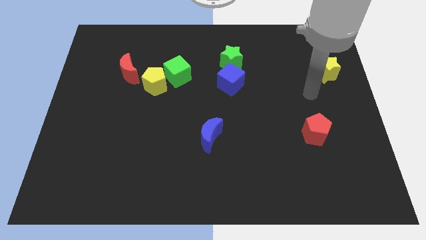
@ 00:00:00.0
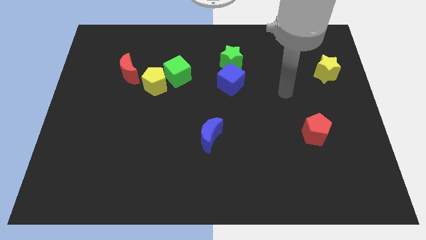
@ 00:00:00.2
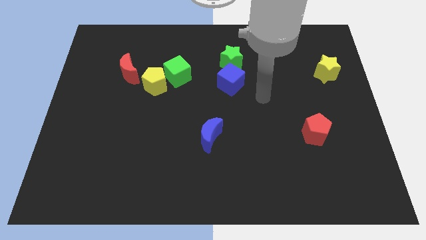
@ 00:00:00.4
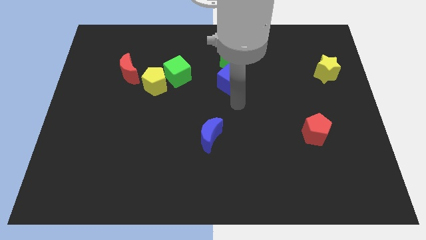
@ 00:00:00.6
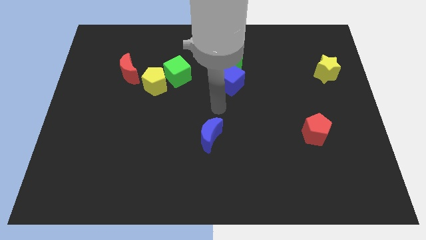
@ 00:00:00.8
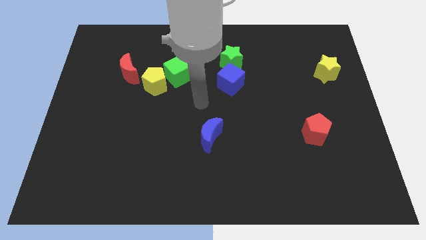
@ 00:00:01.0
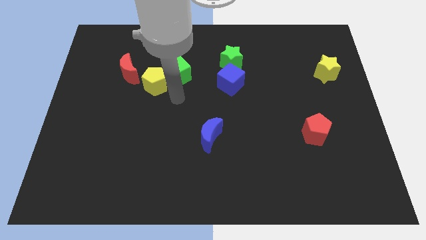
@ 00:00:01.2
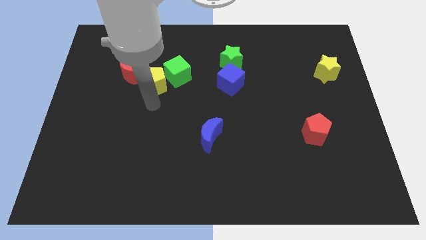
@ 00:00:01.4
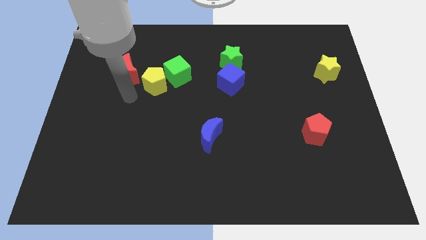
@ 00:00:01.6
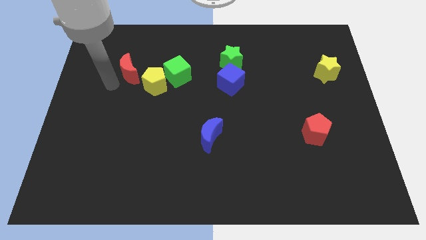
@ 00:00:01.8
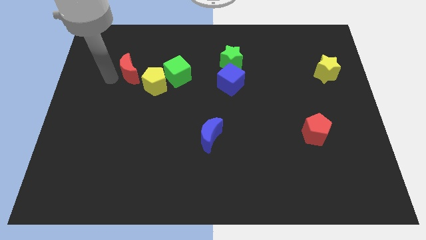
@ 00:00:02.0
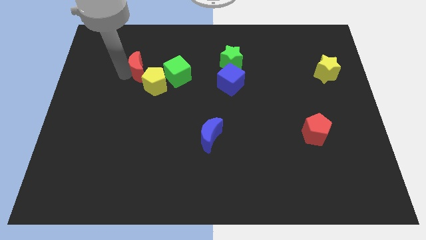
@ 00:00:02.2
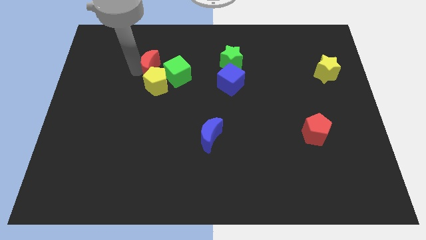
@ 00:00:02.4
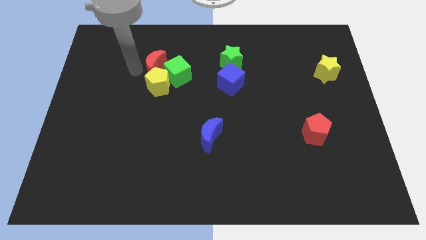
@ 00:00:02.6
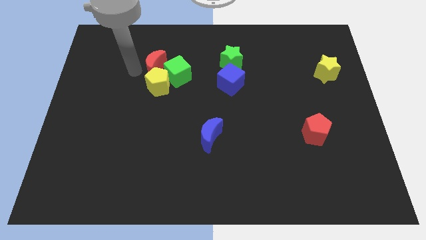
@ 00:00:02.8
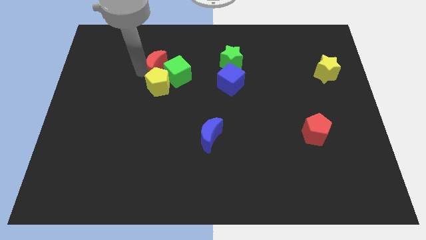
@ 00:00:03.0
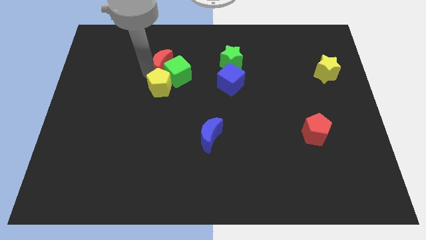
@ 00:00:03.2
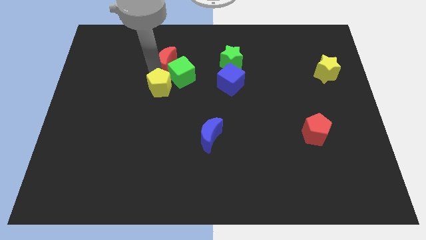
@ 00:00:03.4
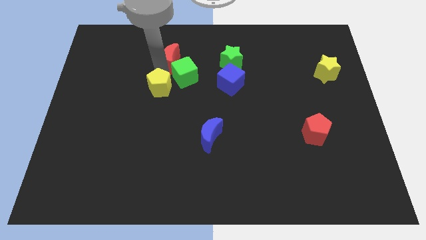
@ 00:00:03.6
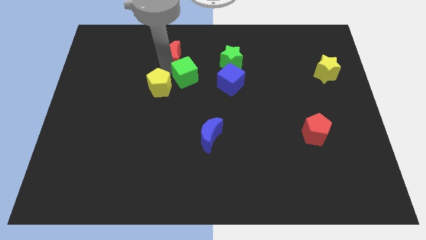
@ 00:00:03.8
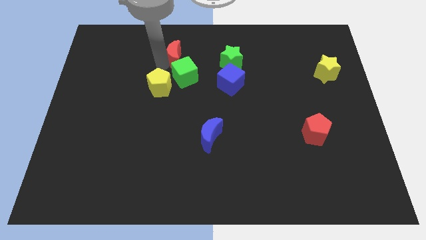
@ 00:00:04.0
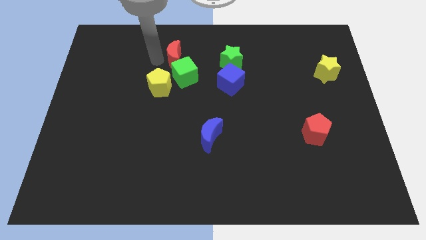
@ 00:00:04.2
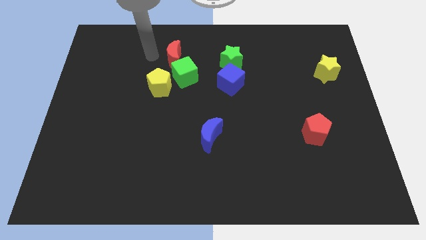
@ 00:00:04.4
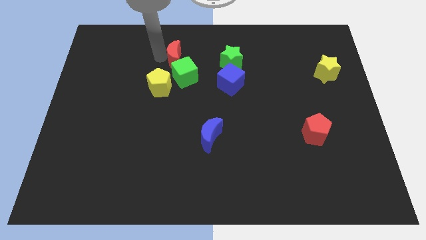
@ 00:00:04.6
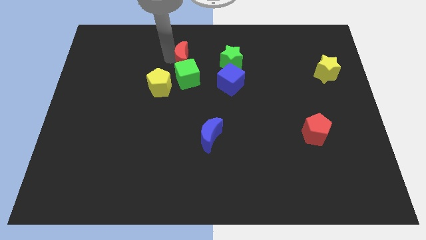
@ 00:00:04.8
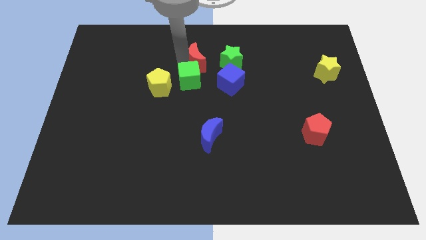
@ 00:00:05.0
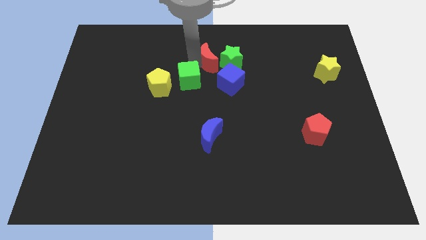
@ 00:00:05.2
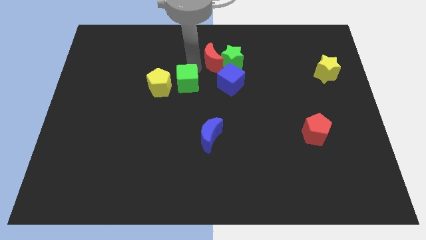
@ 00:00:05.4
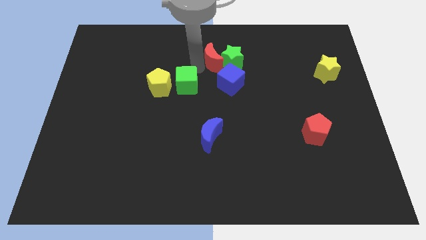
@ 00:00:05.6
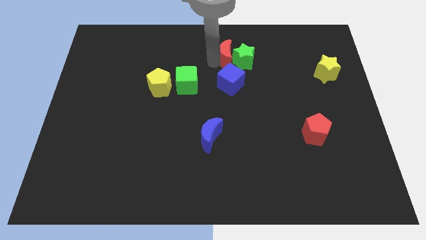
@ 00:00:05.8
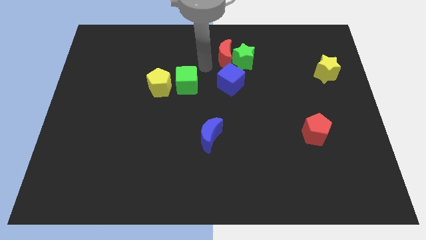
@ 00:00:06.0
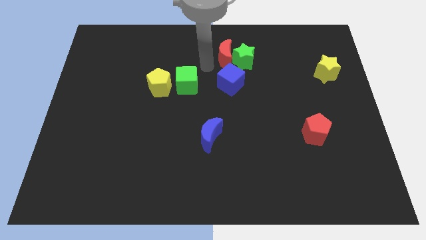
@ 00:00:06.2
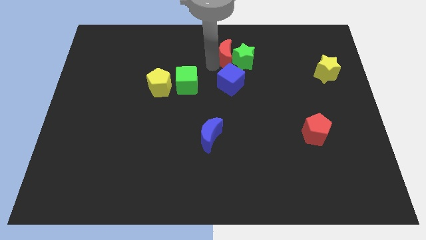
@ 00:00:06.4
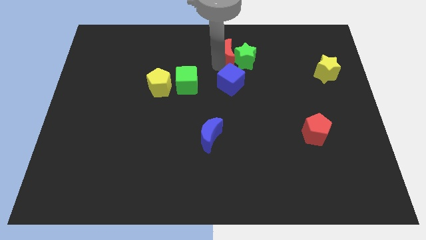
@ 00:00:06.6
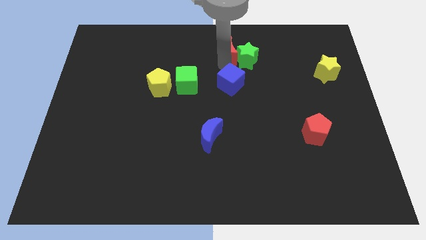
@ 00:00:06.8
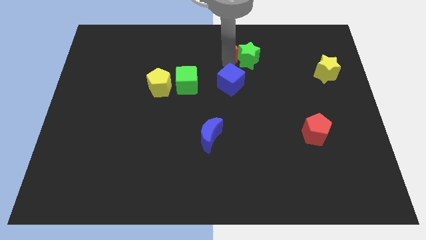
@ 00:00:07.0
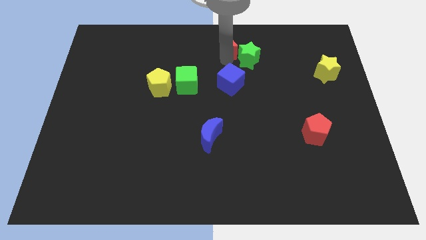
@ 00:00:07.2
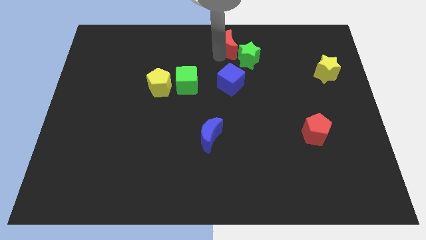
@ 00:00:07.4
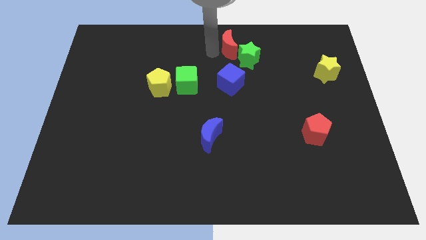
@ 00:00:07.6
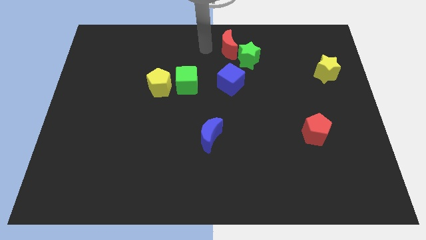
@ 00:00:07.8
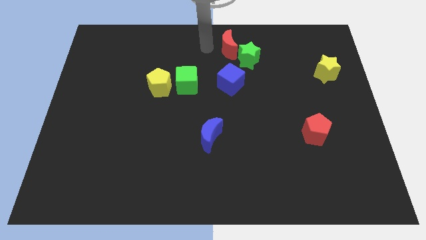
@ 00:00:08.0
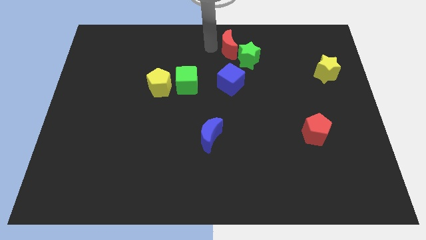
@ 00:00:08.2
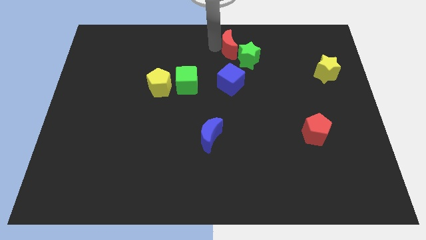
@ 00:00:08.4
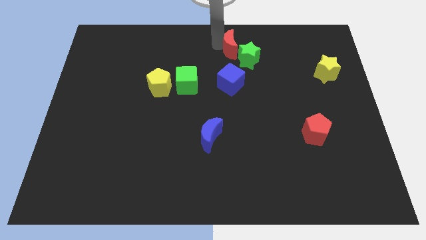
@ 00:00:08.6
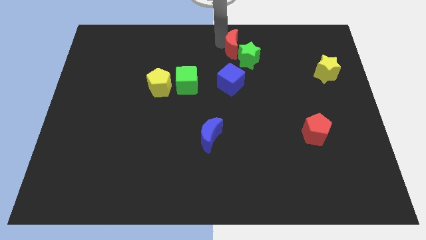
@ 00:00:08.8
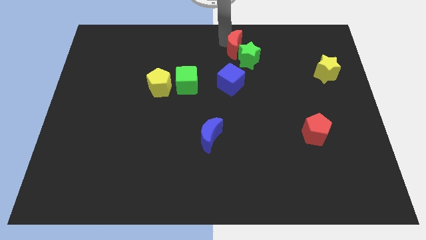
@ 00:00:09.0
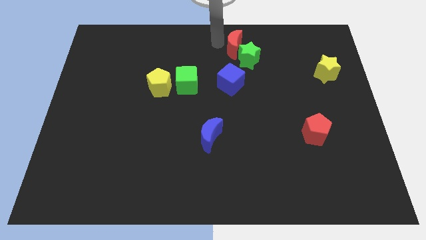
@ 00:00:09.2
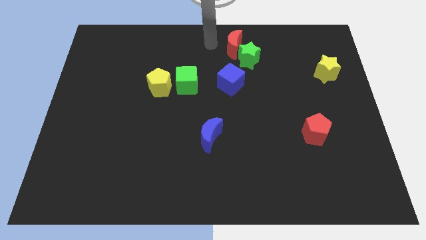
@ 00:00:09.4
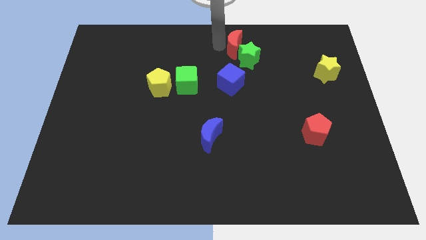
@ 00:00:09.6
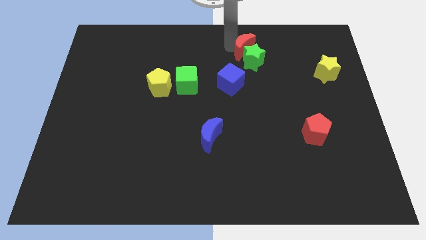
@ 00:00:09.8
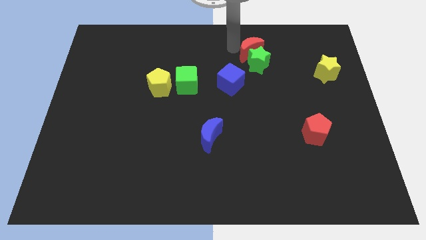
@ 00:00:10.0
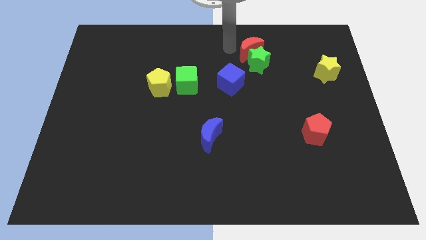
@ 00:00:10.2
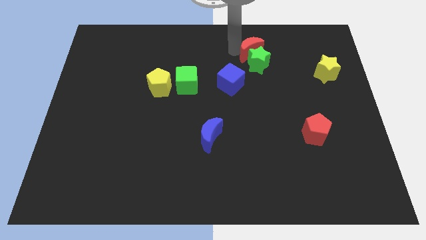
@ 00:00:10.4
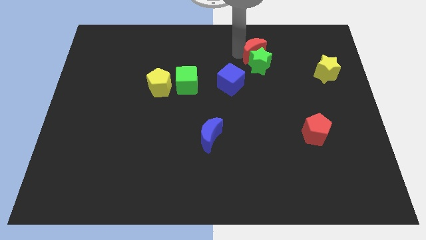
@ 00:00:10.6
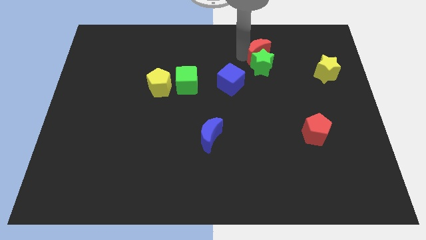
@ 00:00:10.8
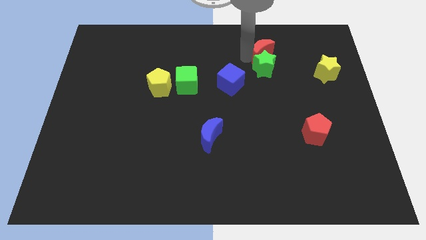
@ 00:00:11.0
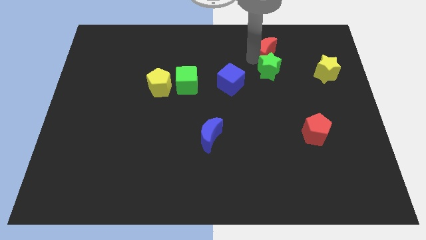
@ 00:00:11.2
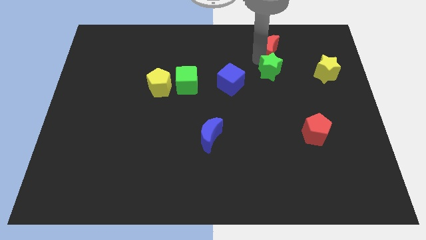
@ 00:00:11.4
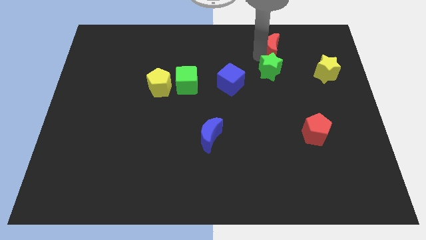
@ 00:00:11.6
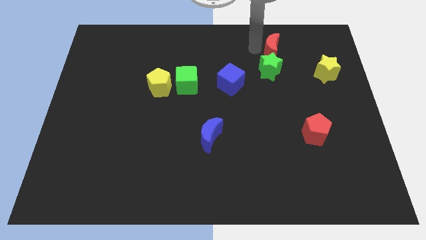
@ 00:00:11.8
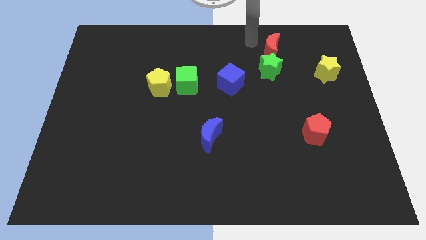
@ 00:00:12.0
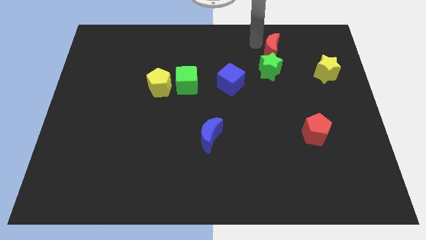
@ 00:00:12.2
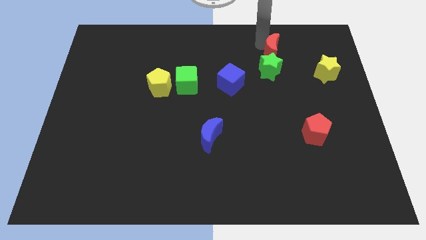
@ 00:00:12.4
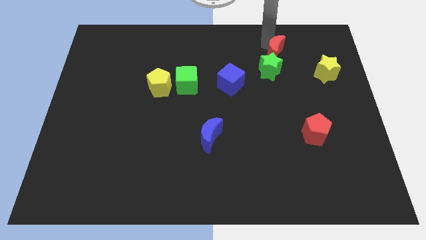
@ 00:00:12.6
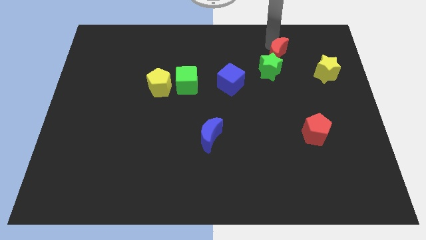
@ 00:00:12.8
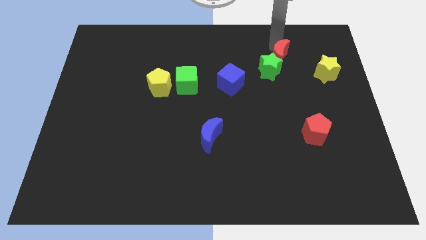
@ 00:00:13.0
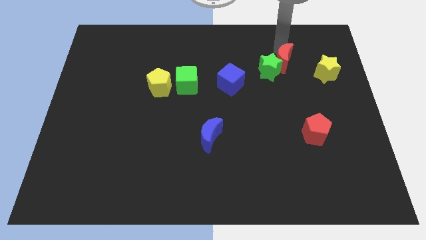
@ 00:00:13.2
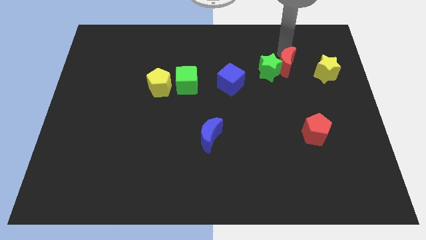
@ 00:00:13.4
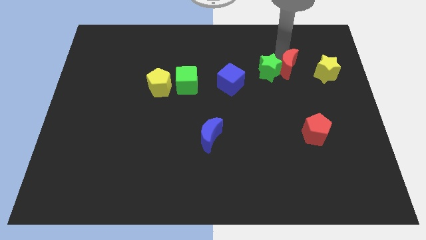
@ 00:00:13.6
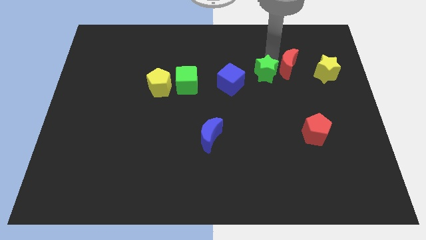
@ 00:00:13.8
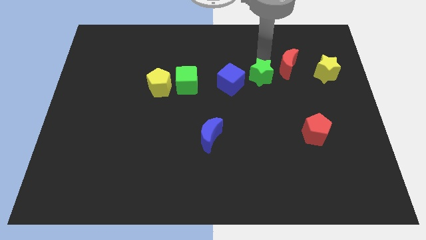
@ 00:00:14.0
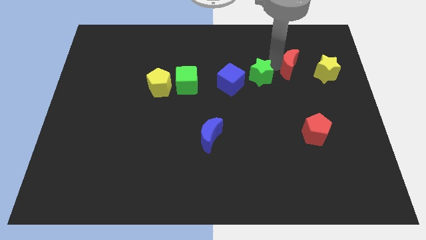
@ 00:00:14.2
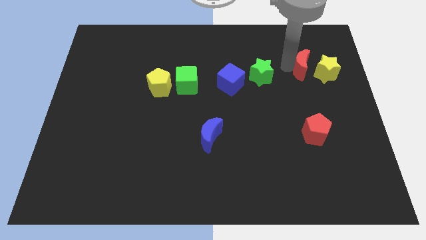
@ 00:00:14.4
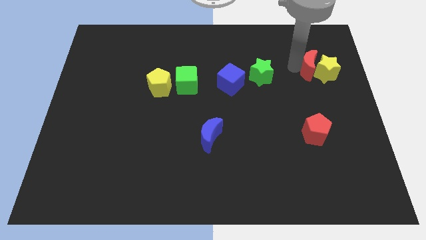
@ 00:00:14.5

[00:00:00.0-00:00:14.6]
push the red moon to the yellow star
